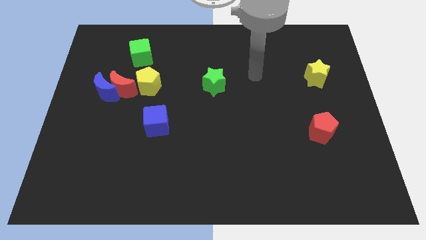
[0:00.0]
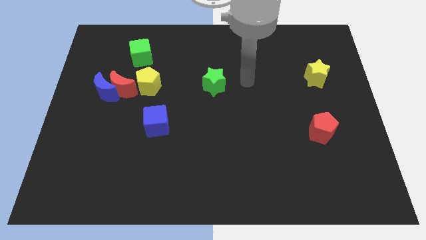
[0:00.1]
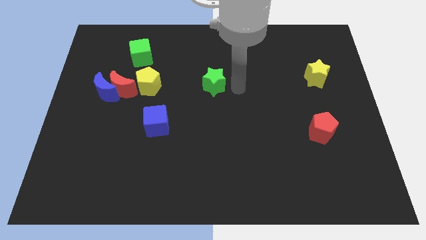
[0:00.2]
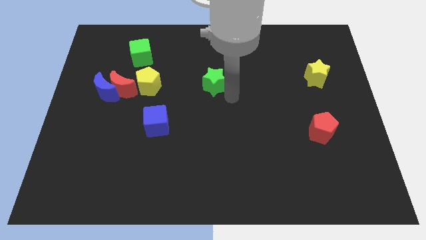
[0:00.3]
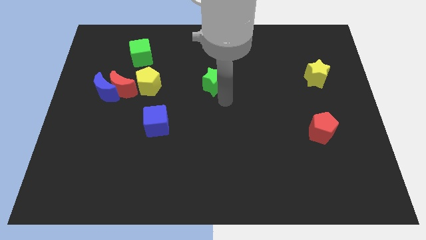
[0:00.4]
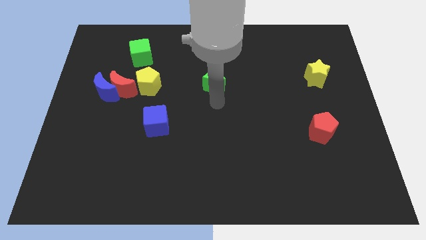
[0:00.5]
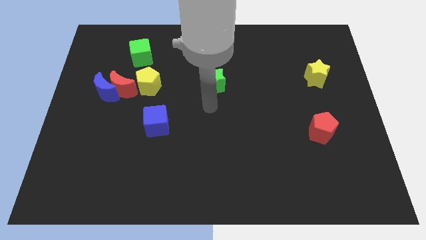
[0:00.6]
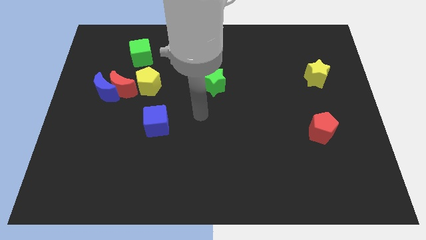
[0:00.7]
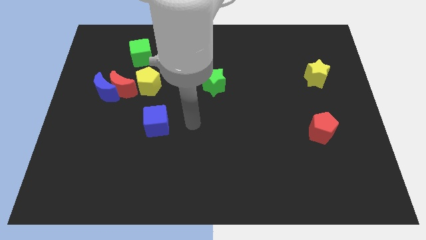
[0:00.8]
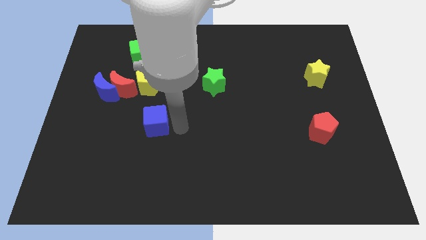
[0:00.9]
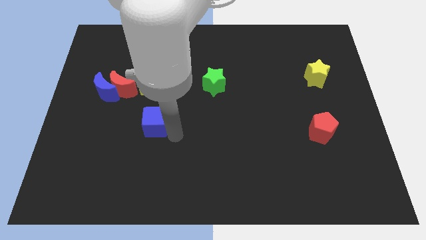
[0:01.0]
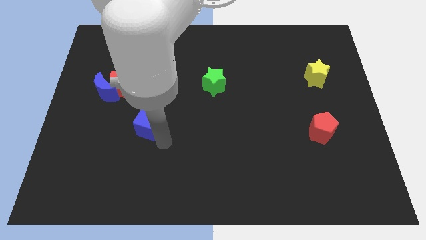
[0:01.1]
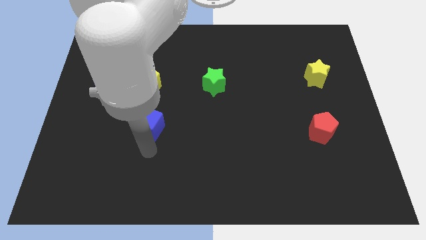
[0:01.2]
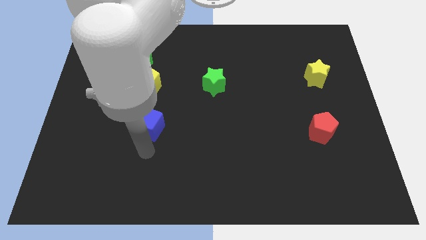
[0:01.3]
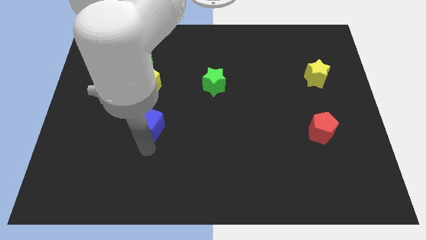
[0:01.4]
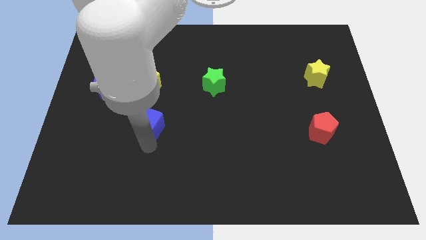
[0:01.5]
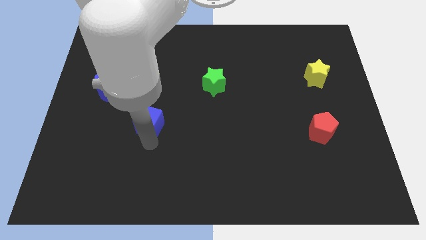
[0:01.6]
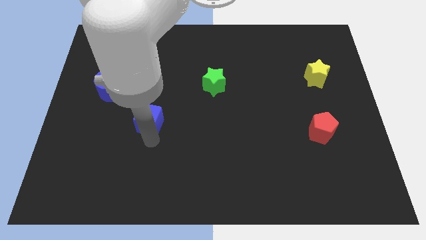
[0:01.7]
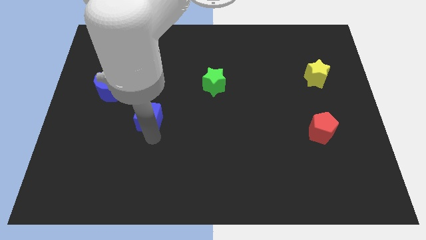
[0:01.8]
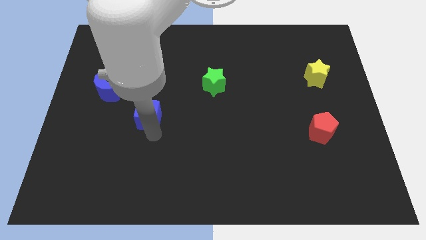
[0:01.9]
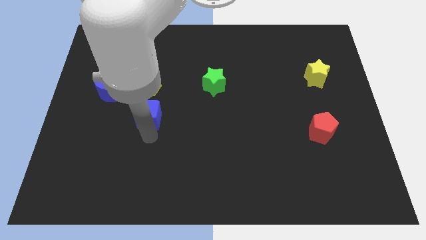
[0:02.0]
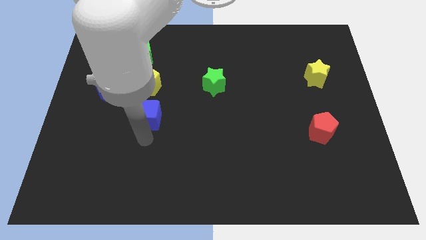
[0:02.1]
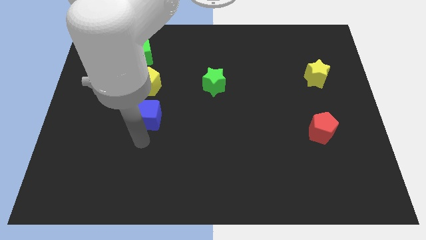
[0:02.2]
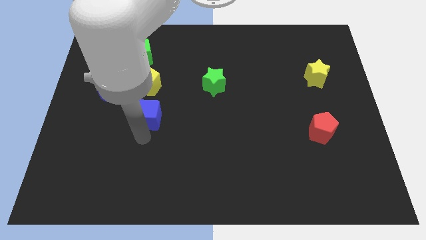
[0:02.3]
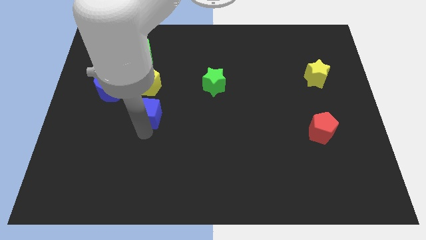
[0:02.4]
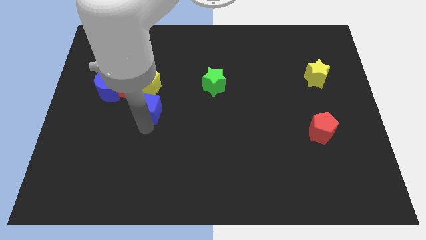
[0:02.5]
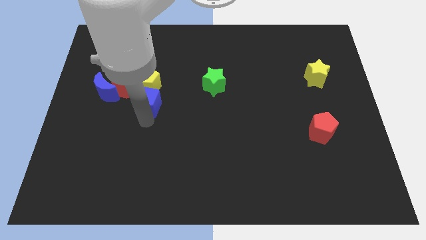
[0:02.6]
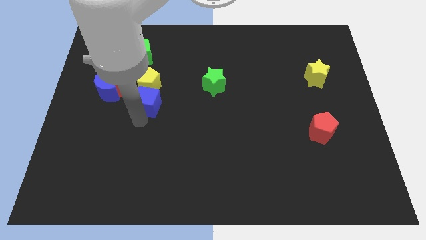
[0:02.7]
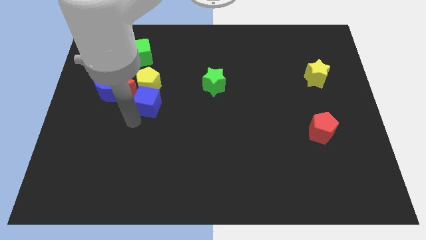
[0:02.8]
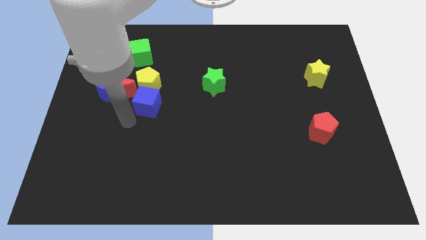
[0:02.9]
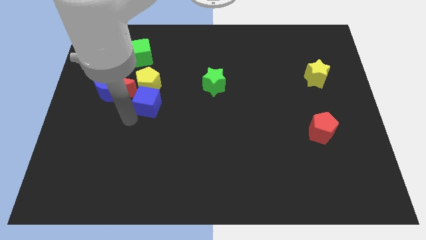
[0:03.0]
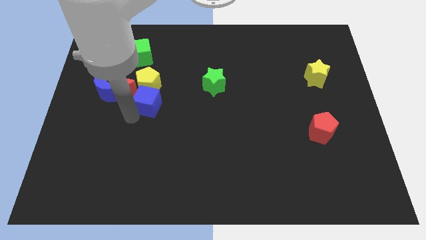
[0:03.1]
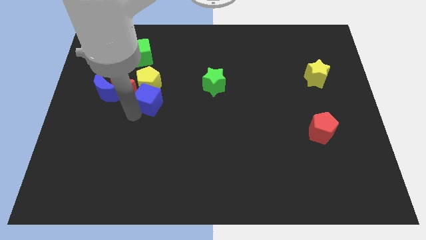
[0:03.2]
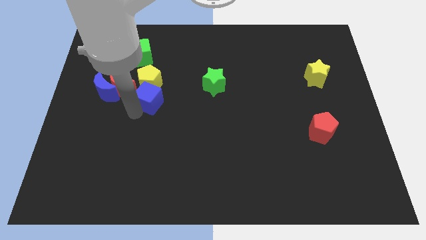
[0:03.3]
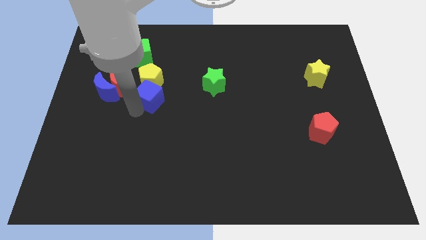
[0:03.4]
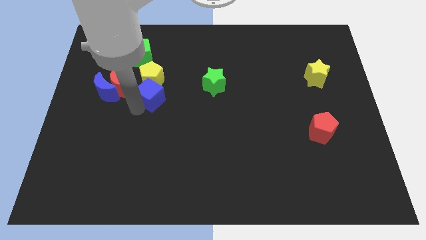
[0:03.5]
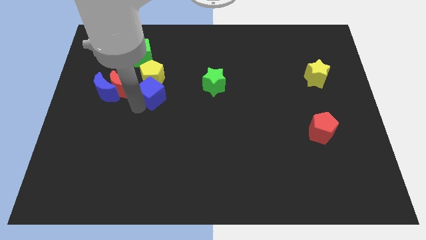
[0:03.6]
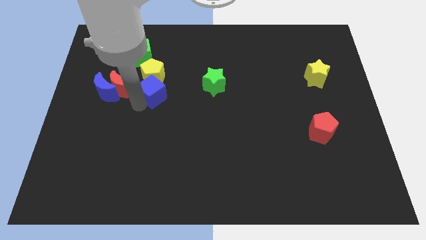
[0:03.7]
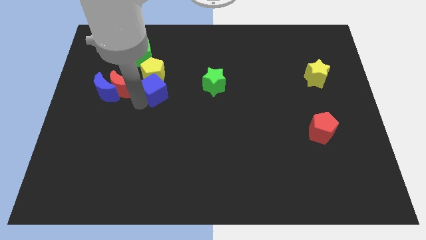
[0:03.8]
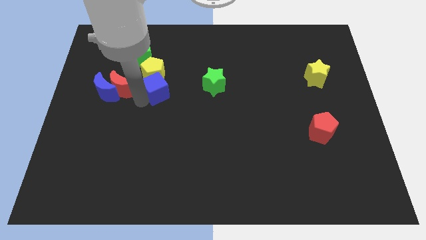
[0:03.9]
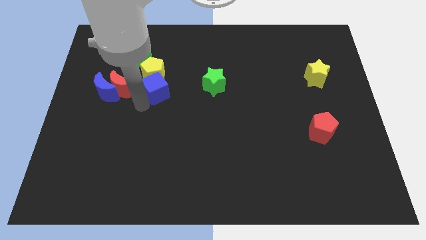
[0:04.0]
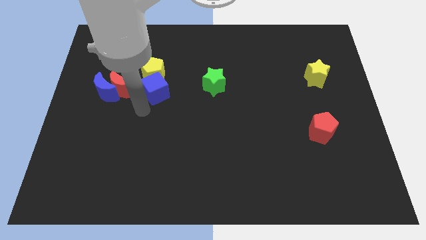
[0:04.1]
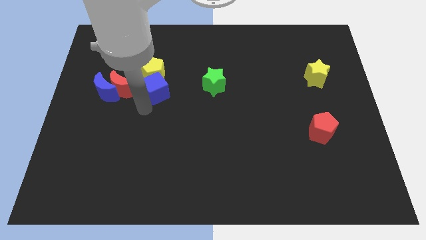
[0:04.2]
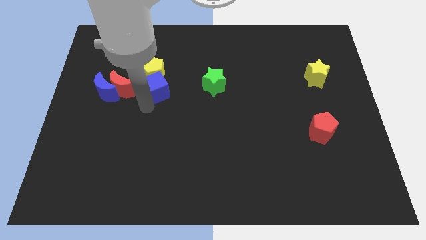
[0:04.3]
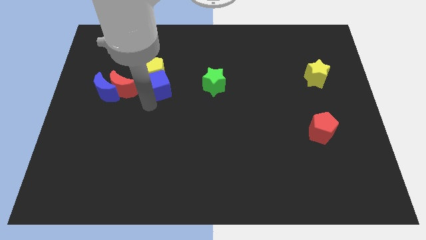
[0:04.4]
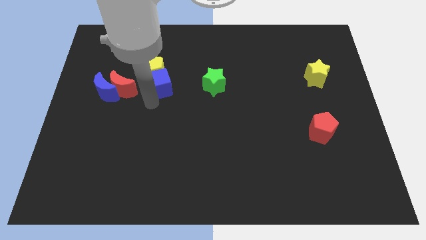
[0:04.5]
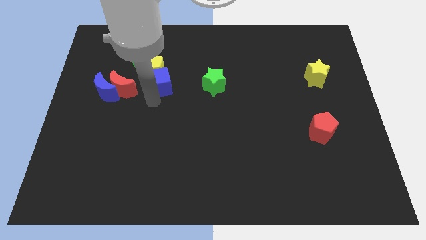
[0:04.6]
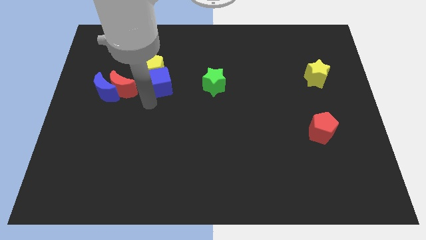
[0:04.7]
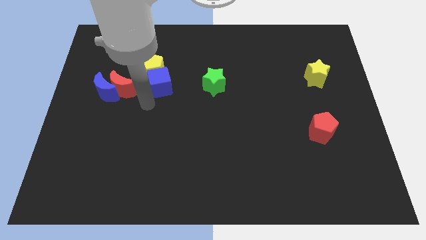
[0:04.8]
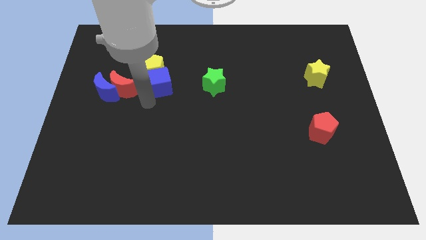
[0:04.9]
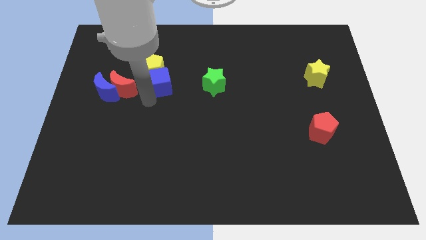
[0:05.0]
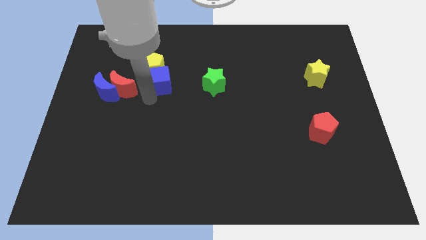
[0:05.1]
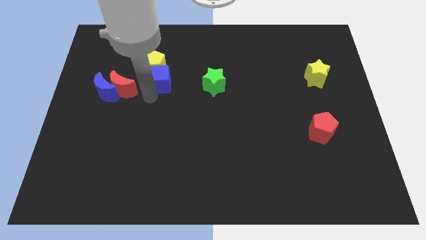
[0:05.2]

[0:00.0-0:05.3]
put the blue cube diagonally up and to the right of the red moon

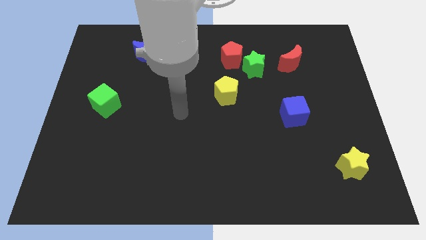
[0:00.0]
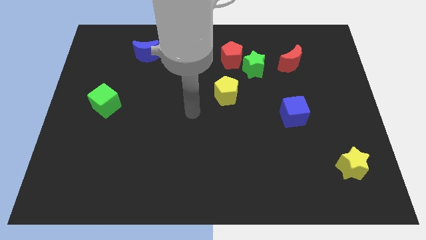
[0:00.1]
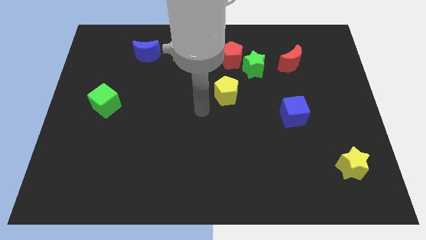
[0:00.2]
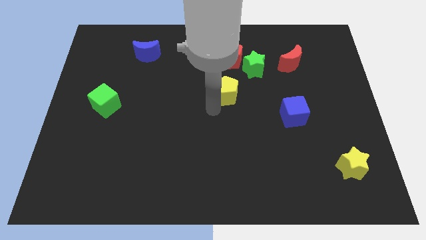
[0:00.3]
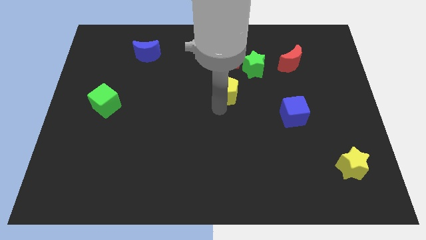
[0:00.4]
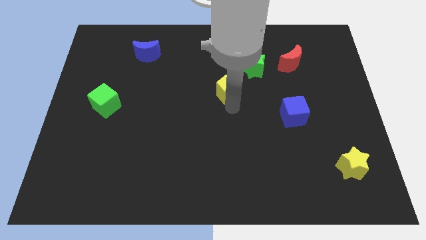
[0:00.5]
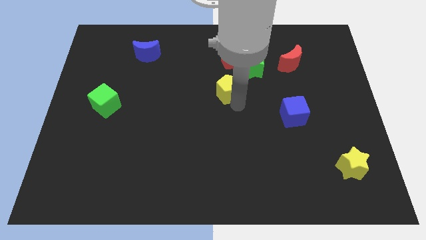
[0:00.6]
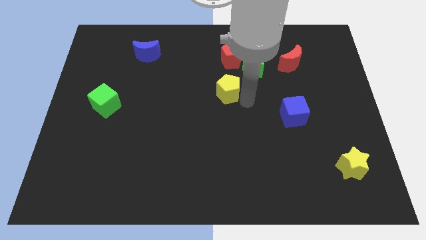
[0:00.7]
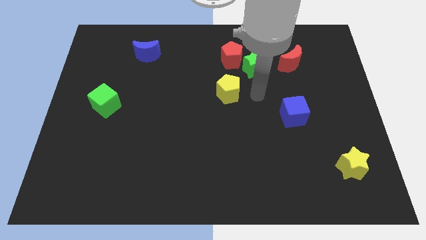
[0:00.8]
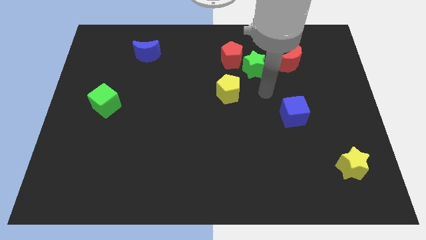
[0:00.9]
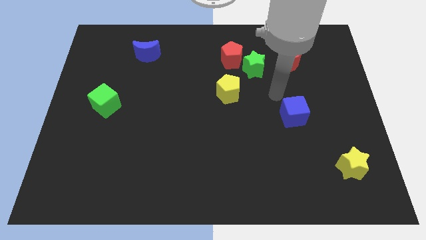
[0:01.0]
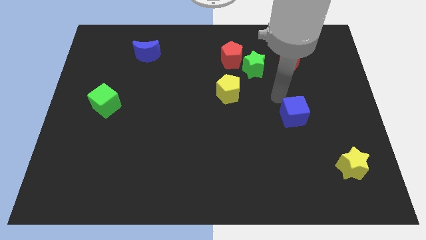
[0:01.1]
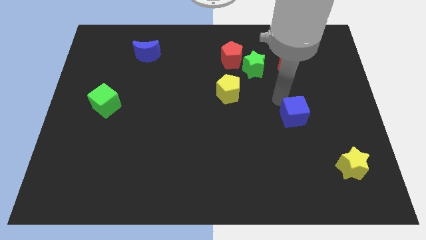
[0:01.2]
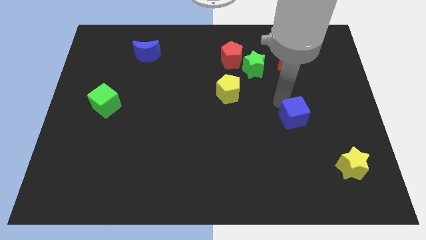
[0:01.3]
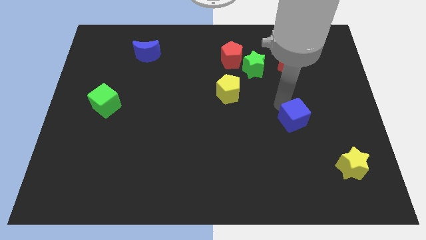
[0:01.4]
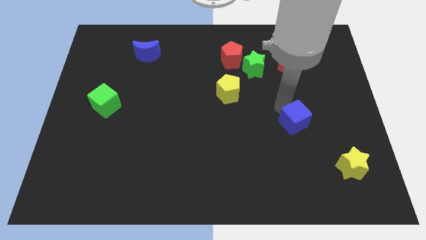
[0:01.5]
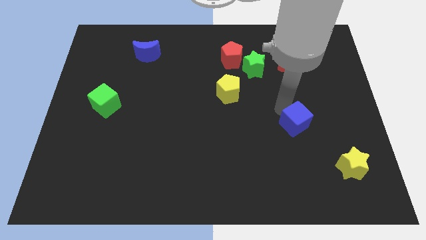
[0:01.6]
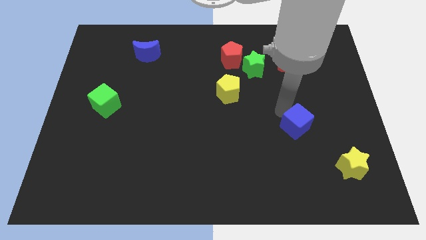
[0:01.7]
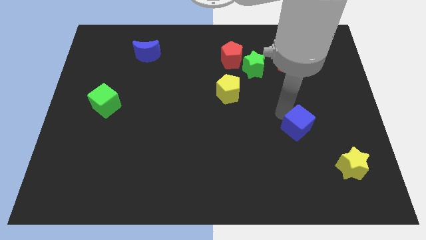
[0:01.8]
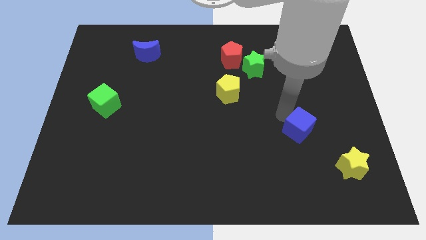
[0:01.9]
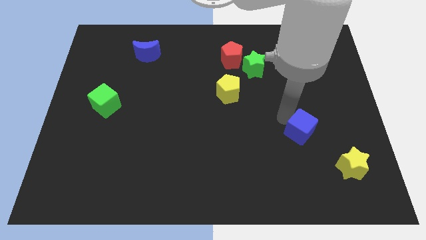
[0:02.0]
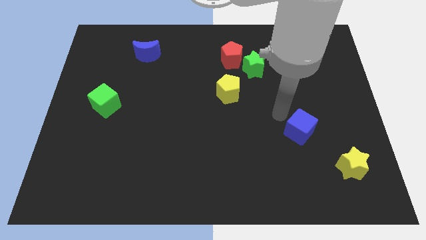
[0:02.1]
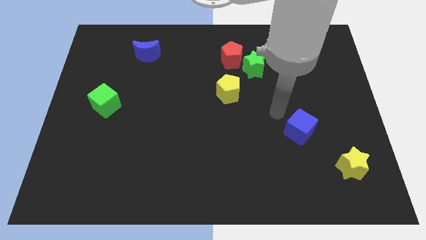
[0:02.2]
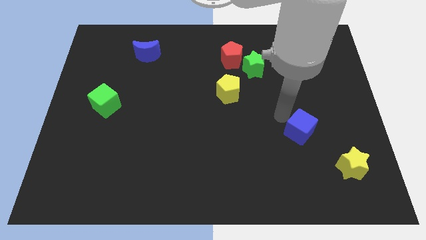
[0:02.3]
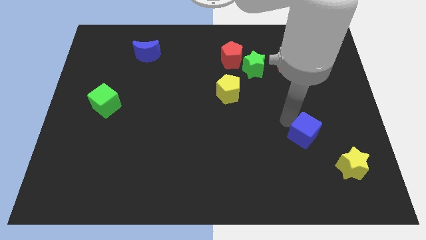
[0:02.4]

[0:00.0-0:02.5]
put the blue cube to the top left side of the yellow star
